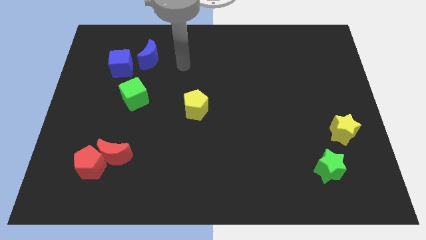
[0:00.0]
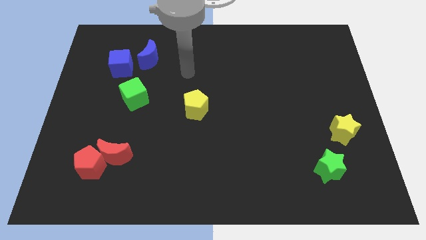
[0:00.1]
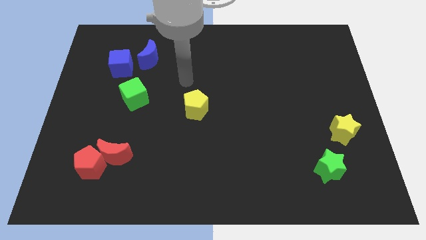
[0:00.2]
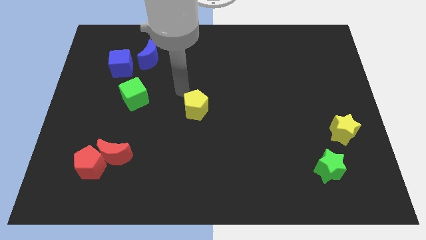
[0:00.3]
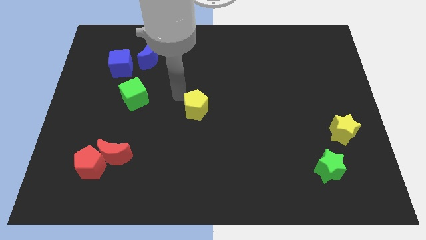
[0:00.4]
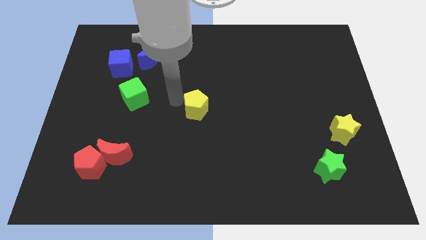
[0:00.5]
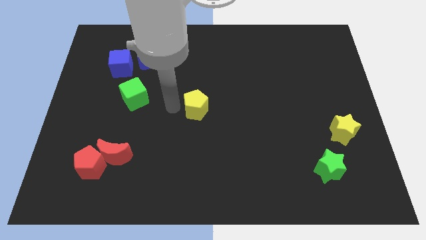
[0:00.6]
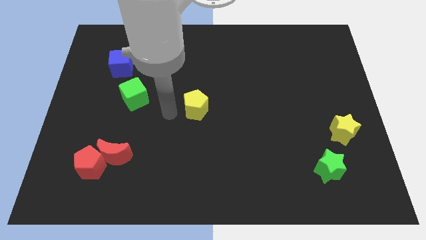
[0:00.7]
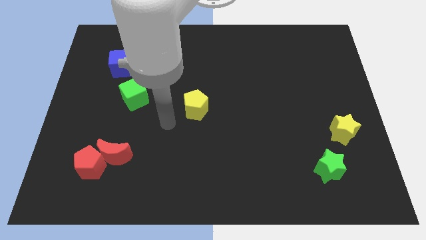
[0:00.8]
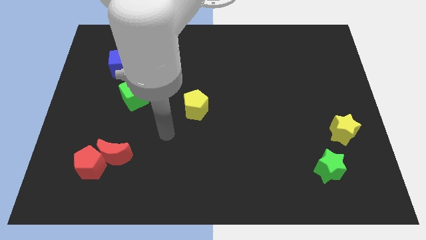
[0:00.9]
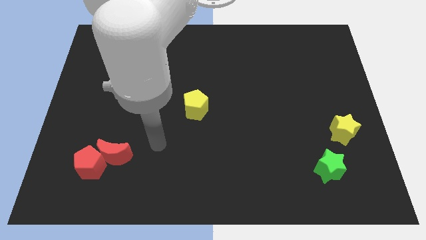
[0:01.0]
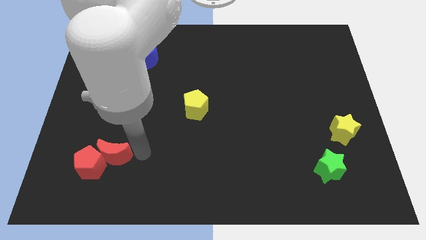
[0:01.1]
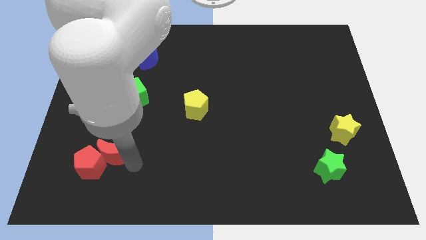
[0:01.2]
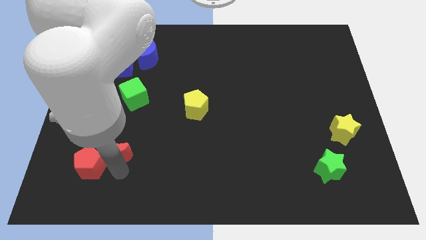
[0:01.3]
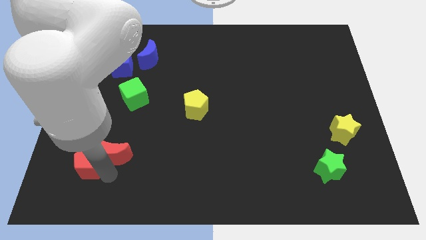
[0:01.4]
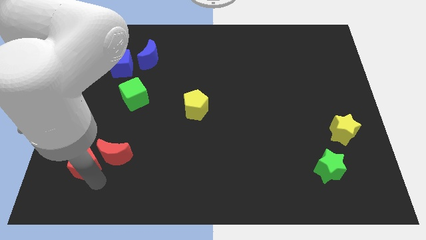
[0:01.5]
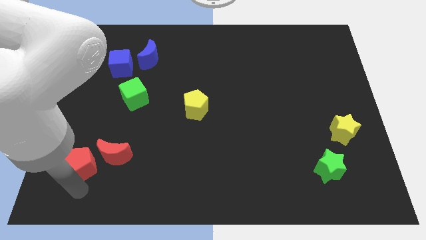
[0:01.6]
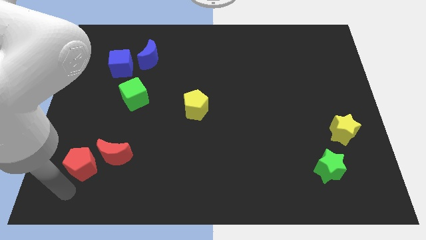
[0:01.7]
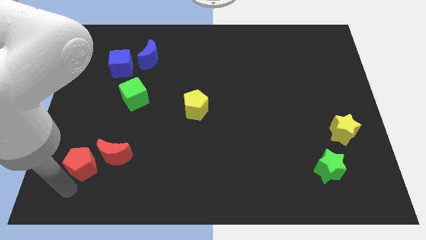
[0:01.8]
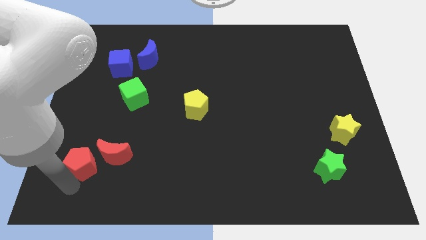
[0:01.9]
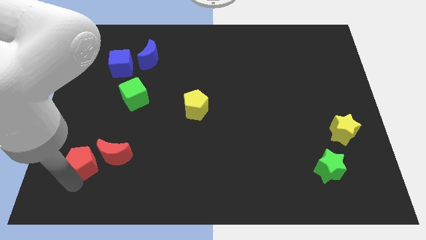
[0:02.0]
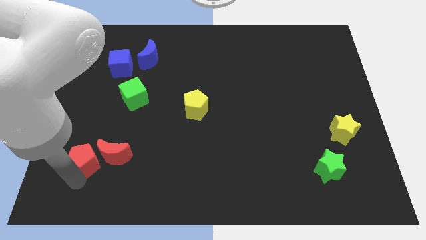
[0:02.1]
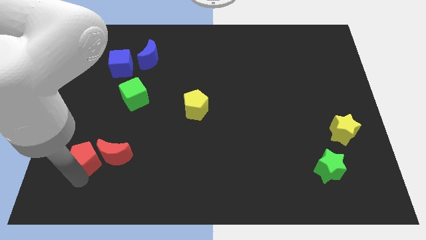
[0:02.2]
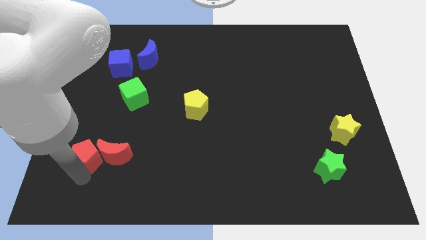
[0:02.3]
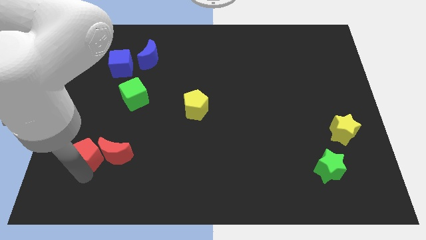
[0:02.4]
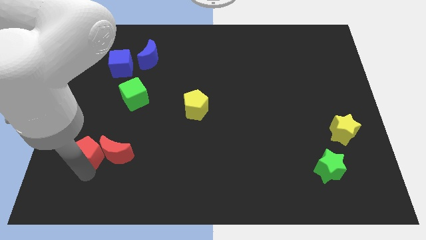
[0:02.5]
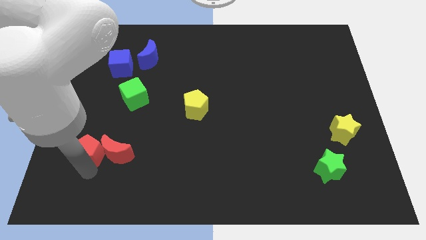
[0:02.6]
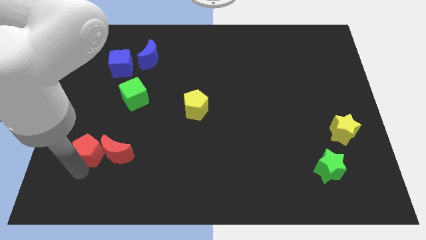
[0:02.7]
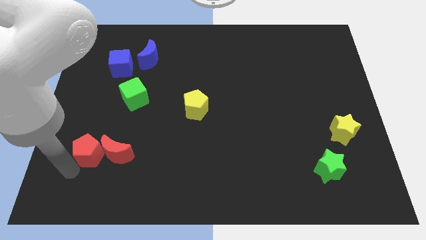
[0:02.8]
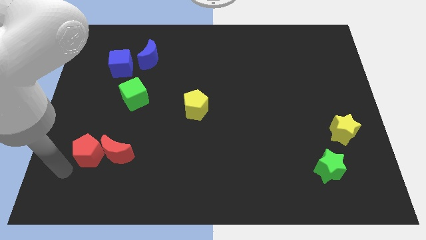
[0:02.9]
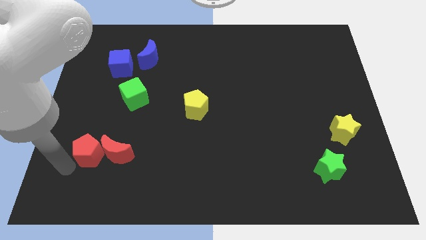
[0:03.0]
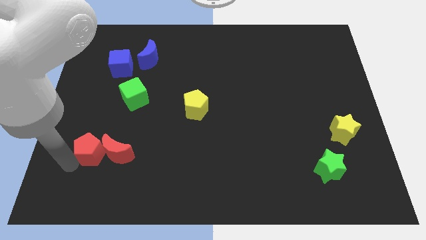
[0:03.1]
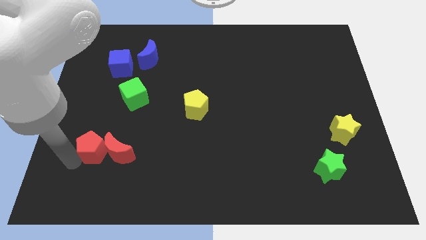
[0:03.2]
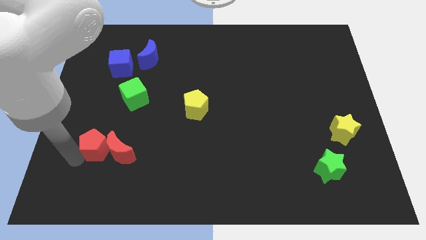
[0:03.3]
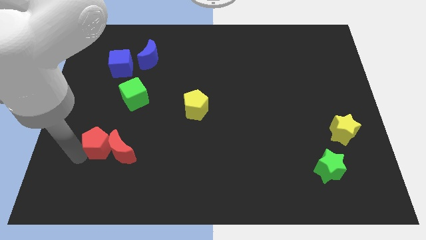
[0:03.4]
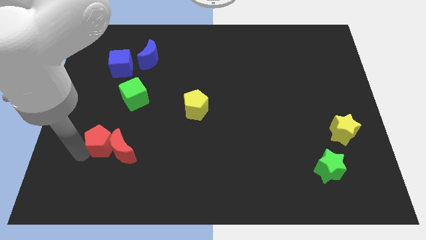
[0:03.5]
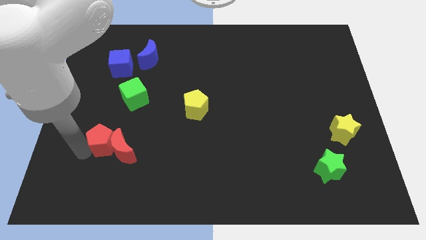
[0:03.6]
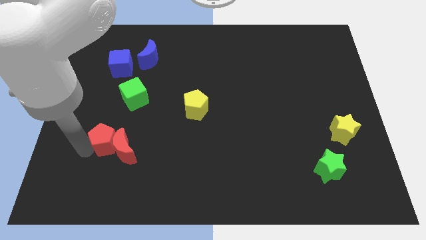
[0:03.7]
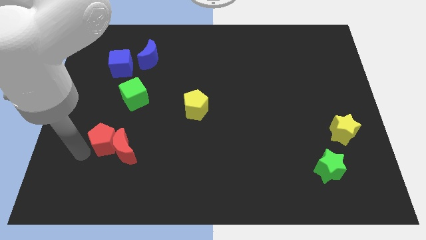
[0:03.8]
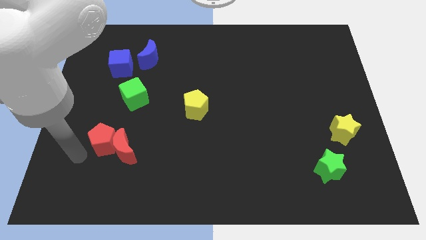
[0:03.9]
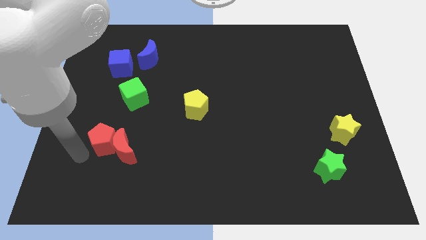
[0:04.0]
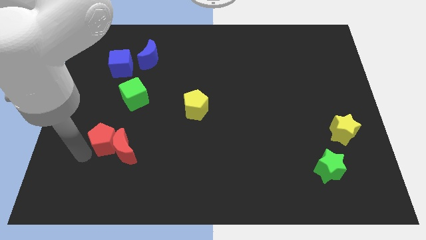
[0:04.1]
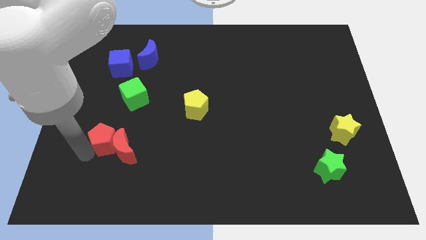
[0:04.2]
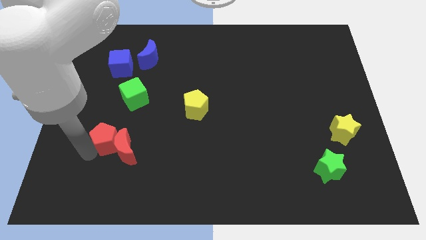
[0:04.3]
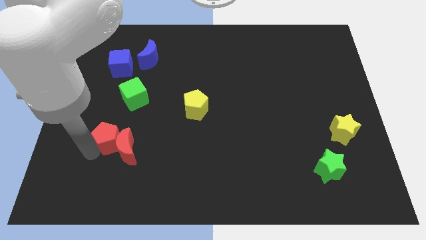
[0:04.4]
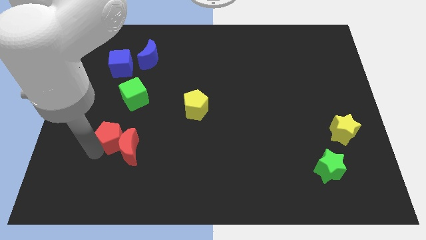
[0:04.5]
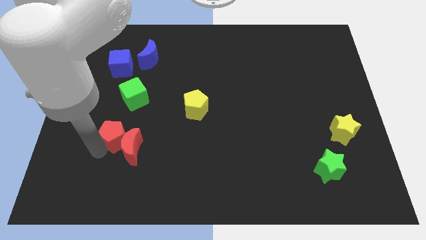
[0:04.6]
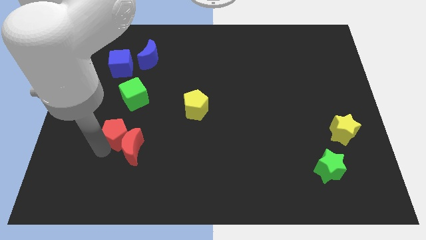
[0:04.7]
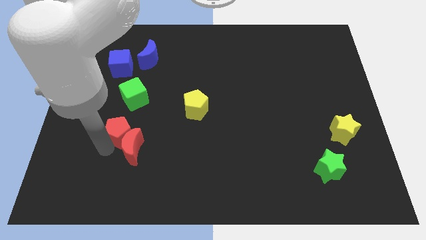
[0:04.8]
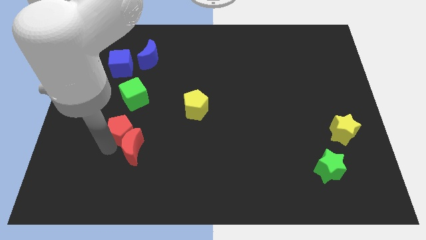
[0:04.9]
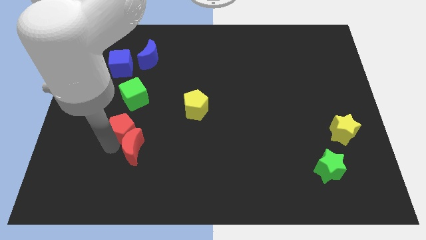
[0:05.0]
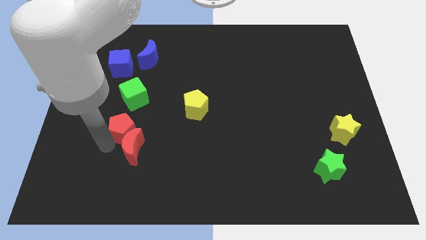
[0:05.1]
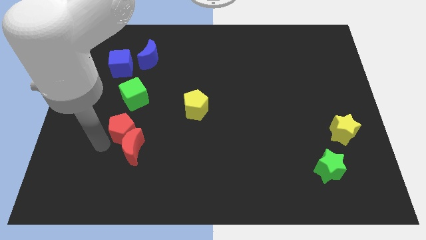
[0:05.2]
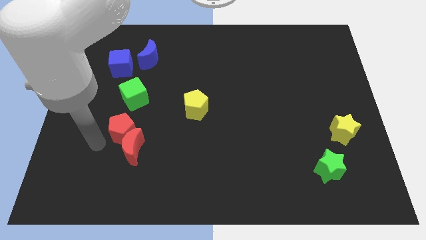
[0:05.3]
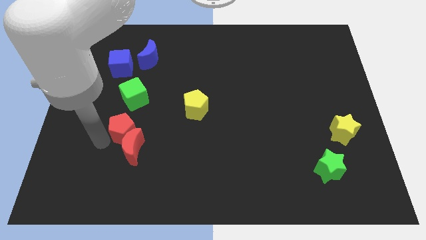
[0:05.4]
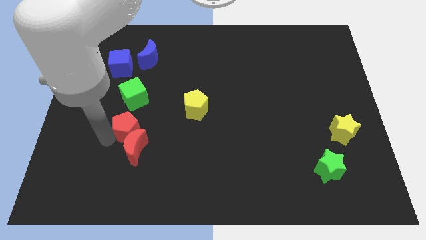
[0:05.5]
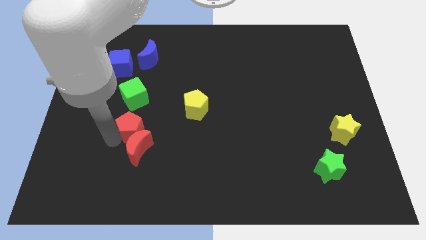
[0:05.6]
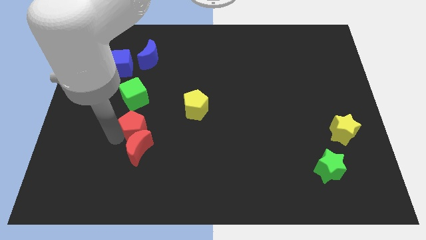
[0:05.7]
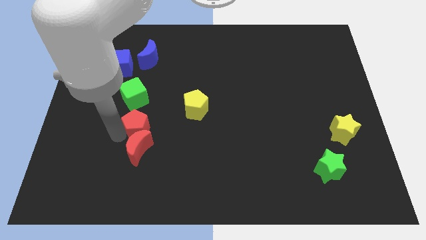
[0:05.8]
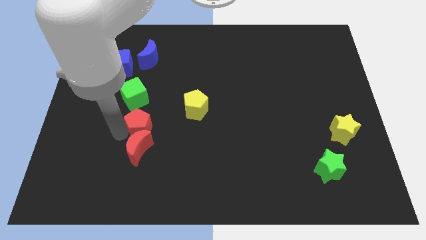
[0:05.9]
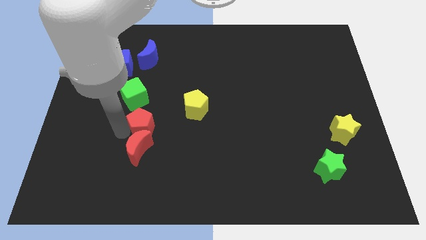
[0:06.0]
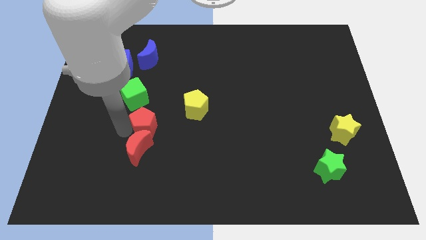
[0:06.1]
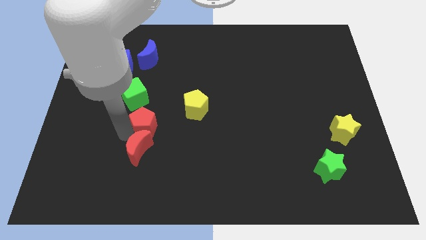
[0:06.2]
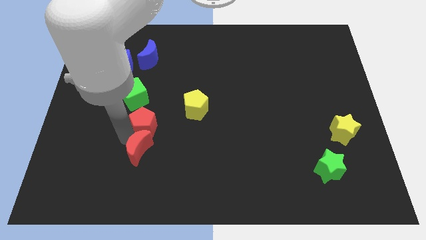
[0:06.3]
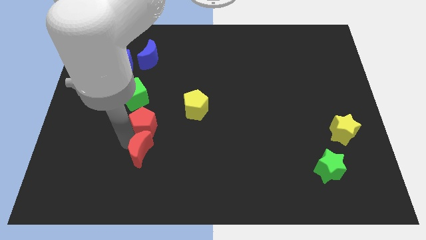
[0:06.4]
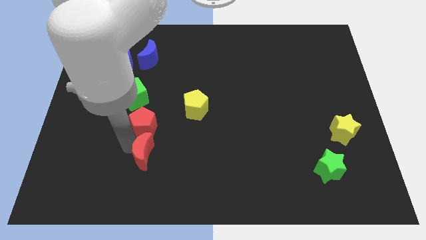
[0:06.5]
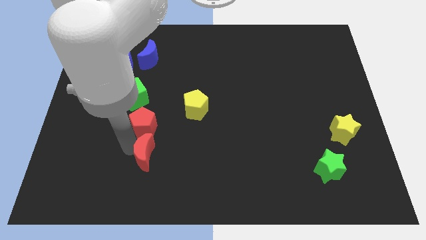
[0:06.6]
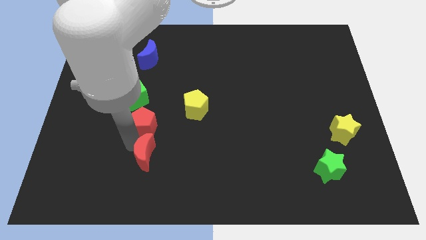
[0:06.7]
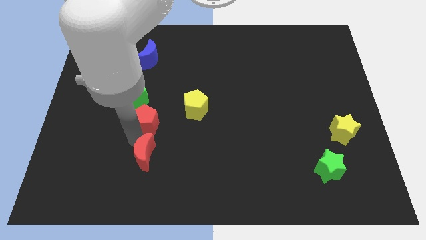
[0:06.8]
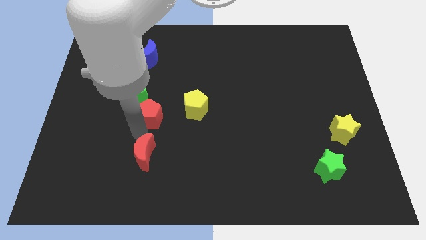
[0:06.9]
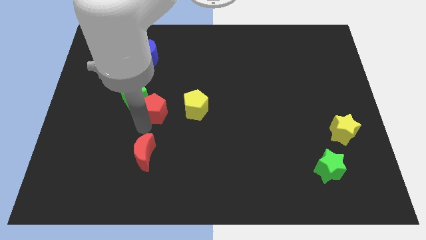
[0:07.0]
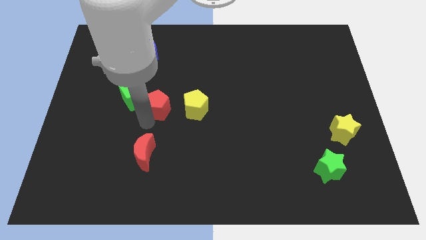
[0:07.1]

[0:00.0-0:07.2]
push the red pentagon diagonally up and to the right

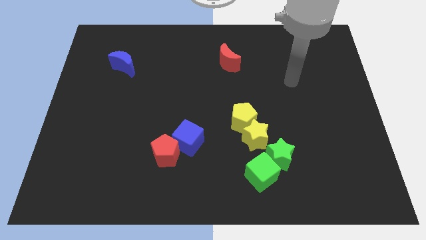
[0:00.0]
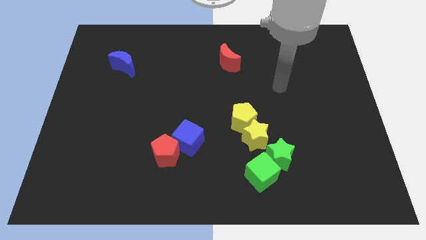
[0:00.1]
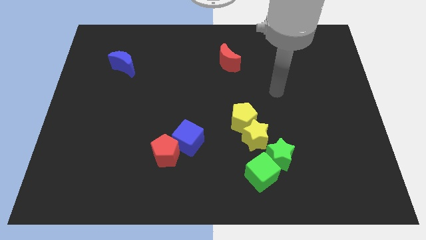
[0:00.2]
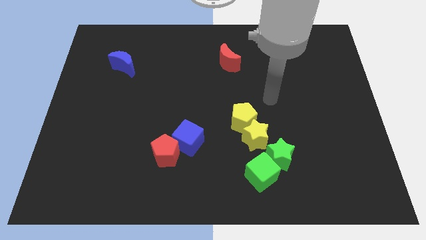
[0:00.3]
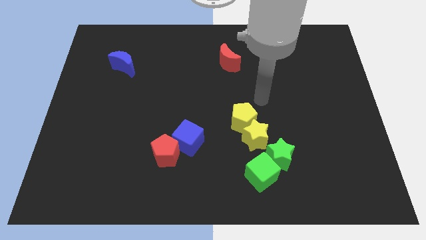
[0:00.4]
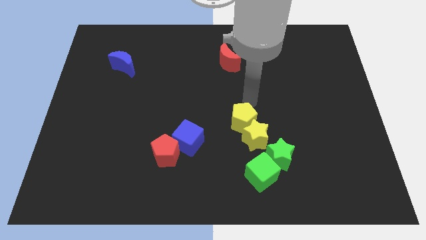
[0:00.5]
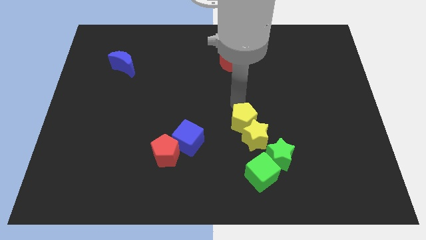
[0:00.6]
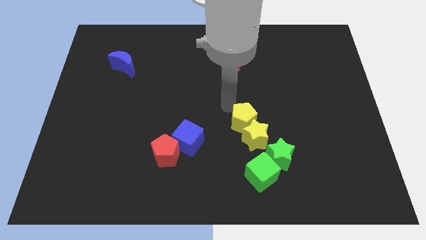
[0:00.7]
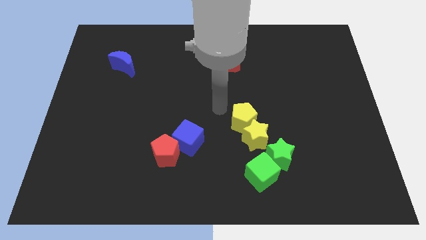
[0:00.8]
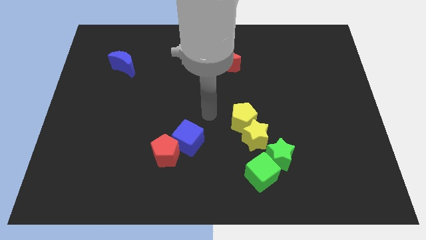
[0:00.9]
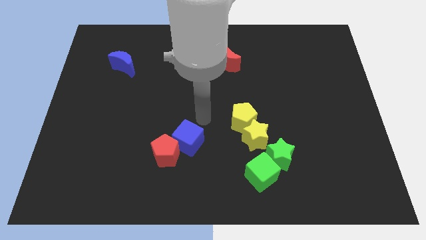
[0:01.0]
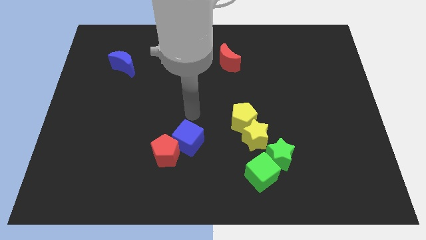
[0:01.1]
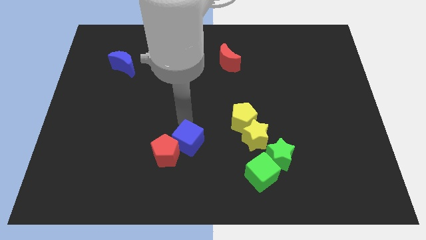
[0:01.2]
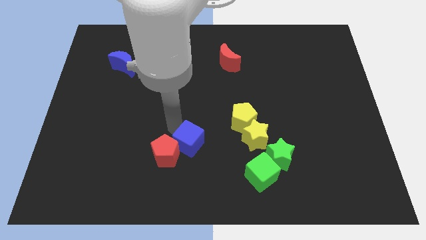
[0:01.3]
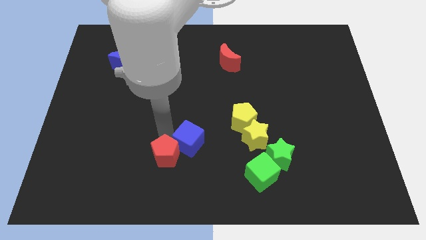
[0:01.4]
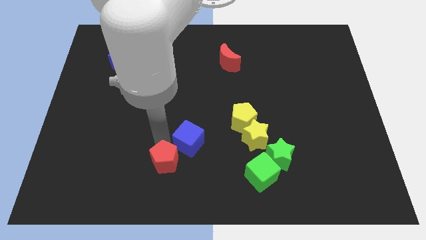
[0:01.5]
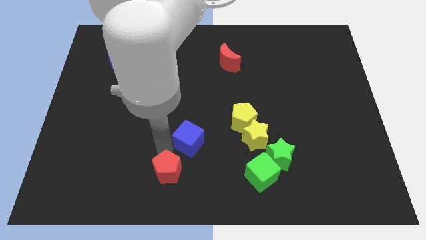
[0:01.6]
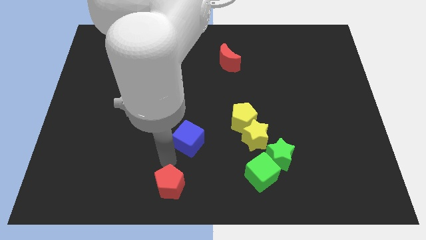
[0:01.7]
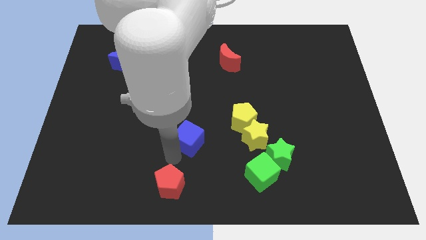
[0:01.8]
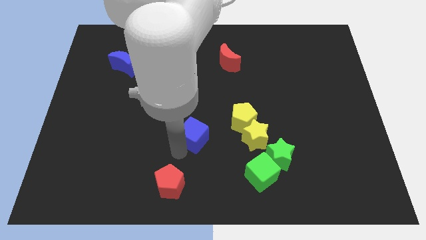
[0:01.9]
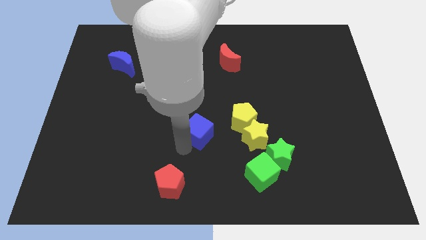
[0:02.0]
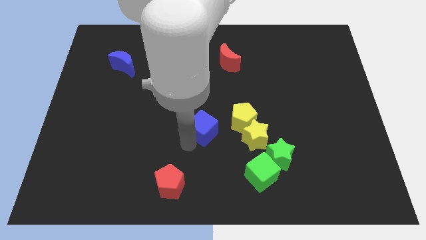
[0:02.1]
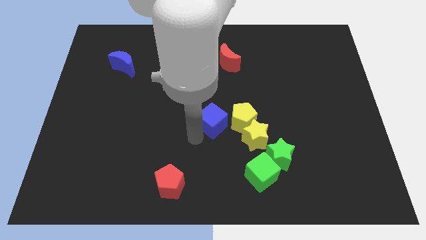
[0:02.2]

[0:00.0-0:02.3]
move the blue cube upwards and then right a bit
